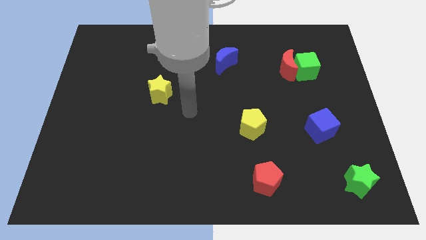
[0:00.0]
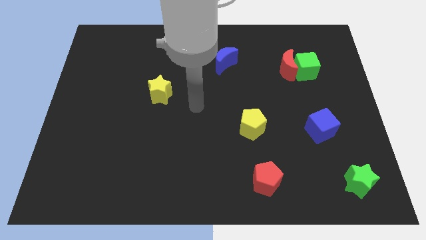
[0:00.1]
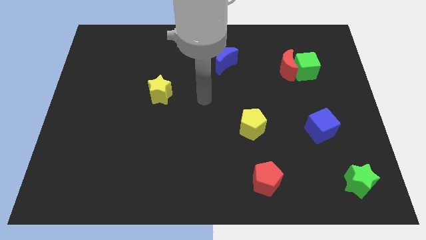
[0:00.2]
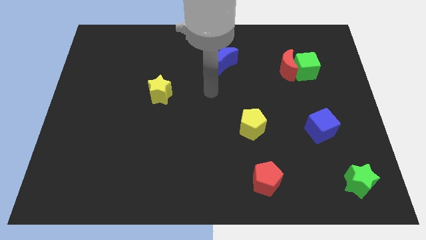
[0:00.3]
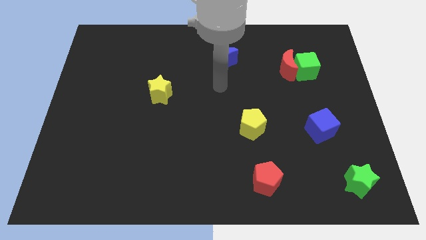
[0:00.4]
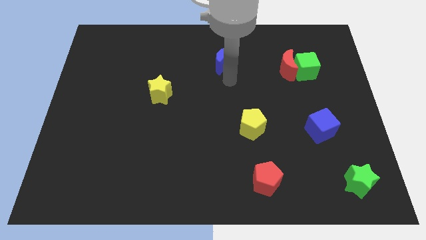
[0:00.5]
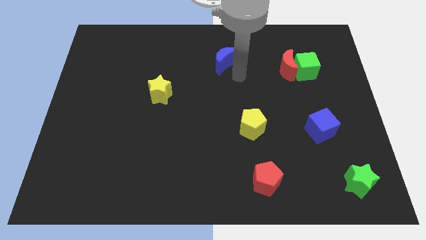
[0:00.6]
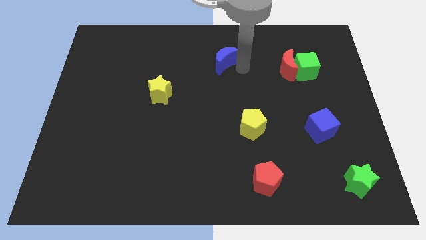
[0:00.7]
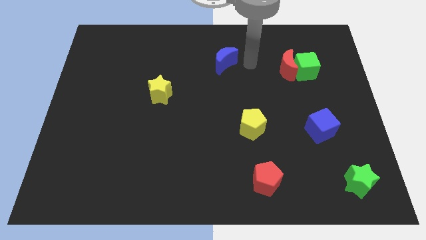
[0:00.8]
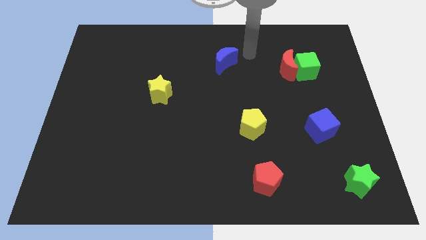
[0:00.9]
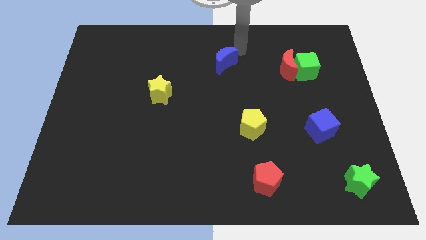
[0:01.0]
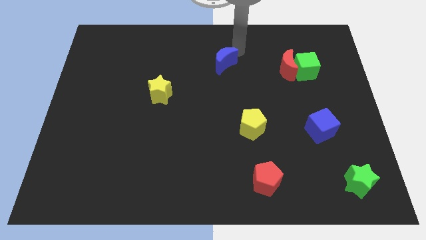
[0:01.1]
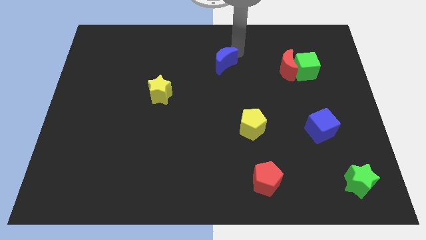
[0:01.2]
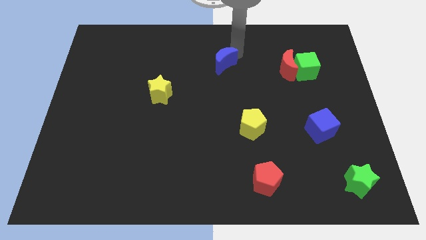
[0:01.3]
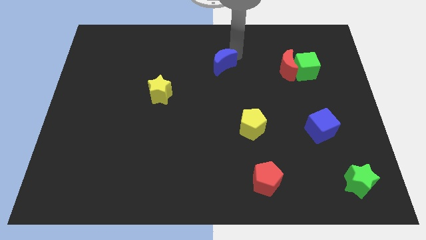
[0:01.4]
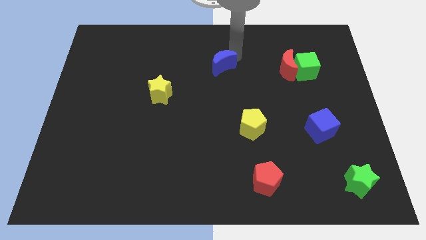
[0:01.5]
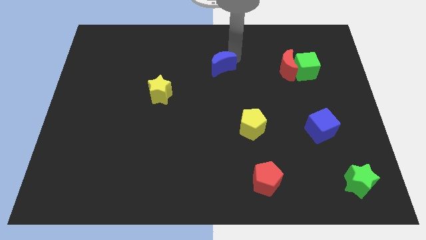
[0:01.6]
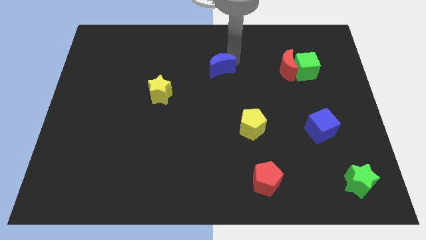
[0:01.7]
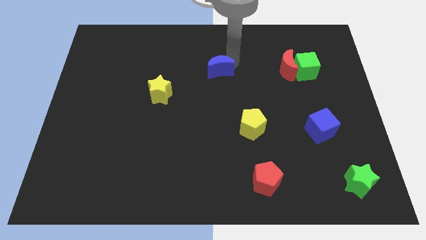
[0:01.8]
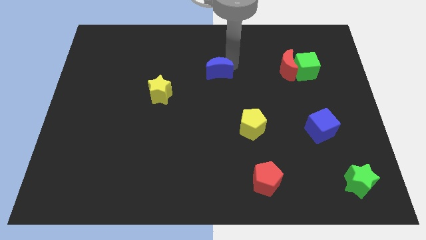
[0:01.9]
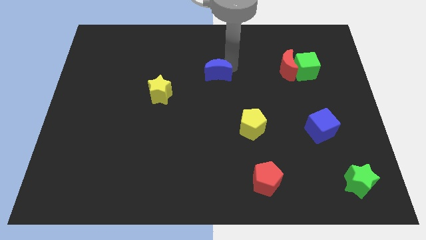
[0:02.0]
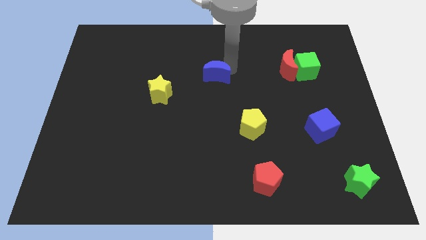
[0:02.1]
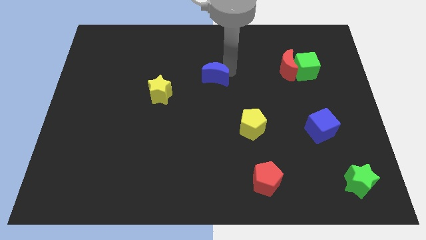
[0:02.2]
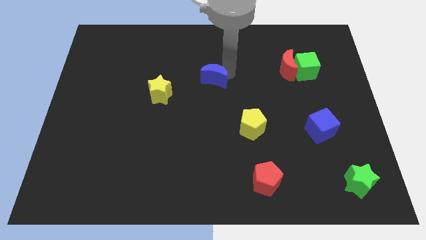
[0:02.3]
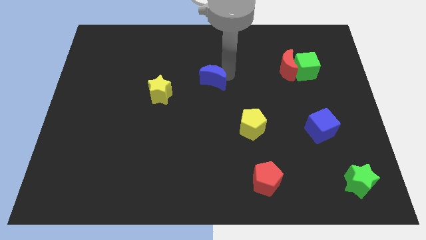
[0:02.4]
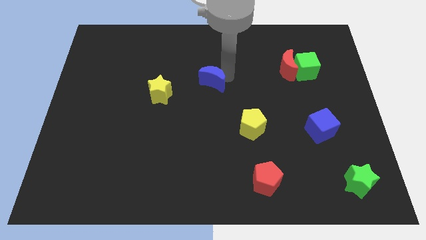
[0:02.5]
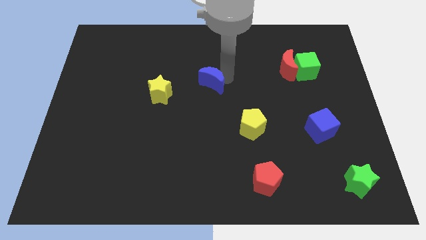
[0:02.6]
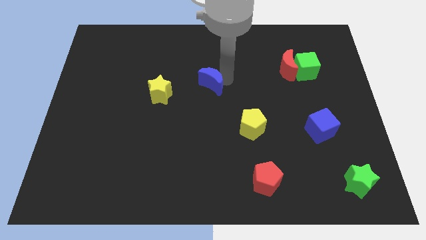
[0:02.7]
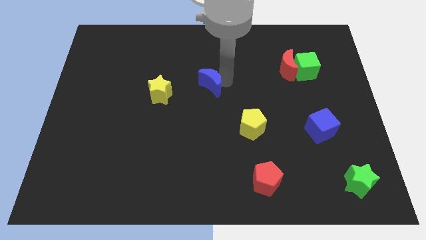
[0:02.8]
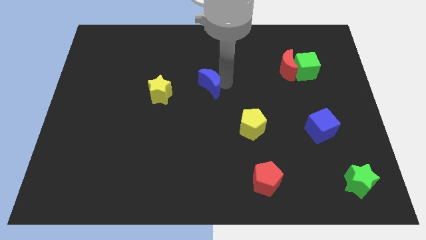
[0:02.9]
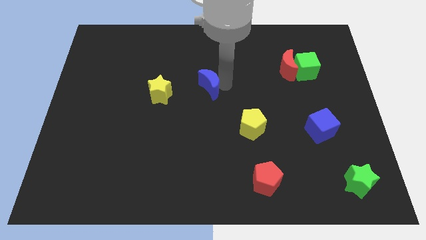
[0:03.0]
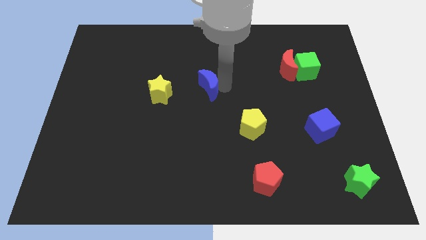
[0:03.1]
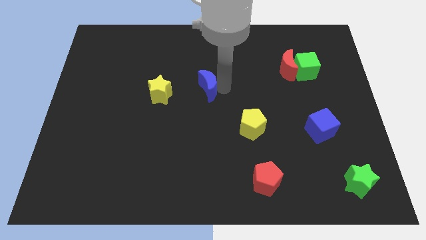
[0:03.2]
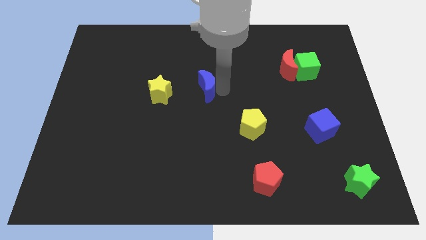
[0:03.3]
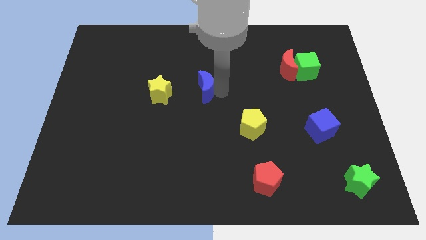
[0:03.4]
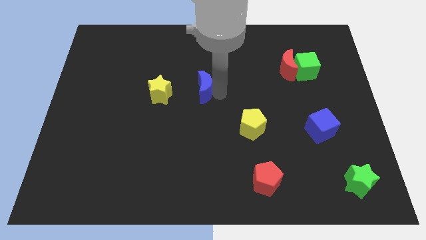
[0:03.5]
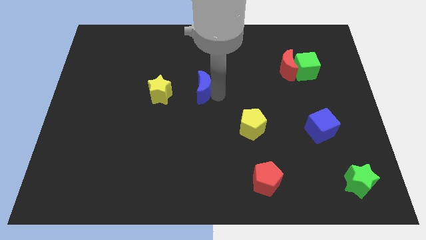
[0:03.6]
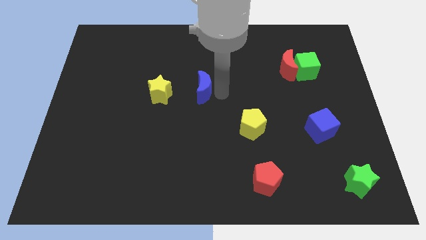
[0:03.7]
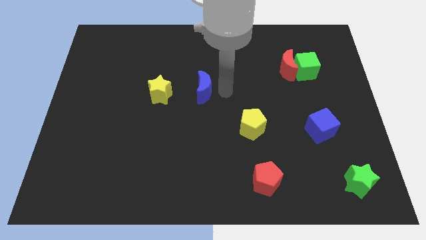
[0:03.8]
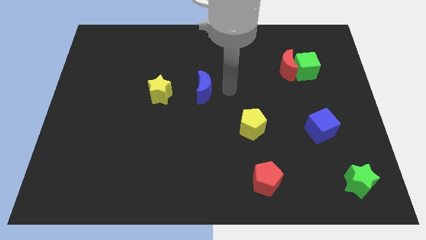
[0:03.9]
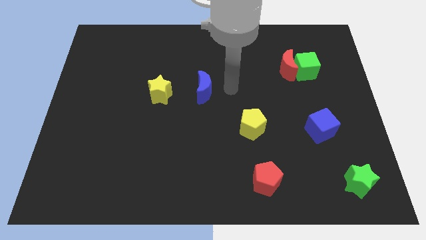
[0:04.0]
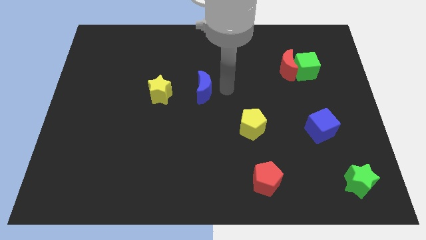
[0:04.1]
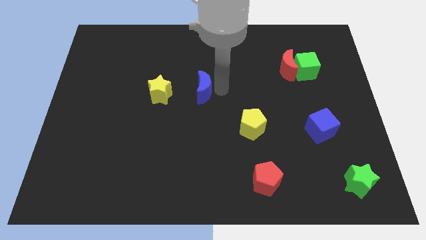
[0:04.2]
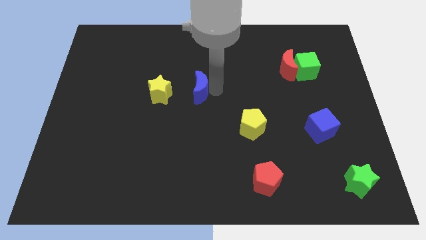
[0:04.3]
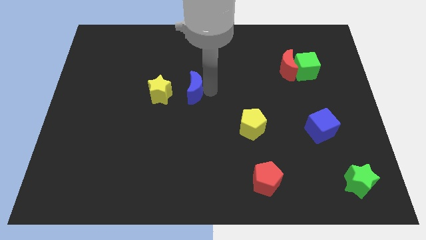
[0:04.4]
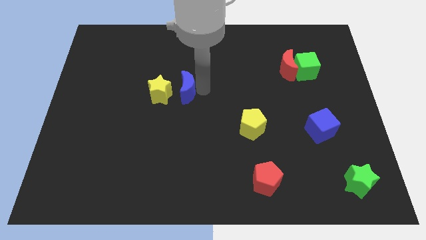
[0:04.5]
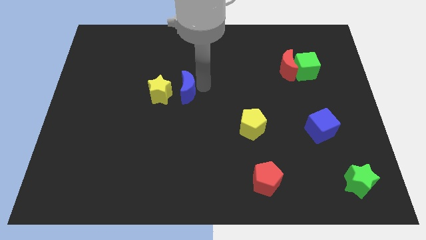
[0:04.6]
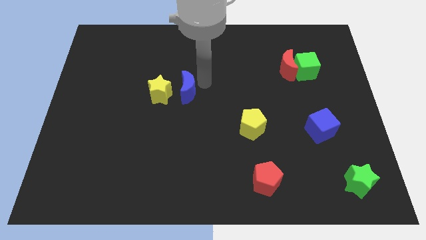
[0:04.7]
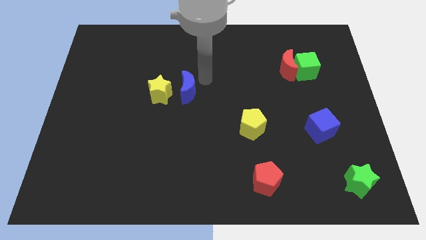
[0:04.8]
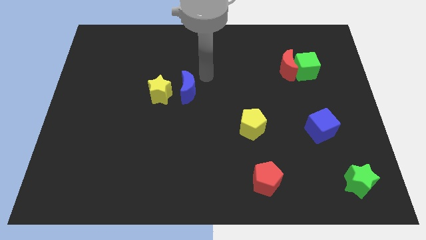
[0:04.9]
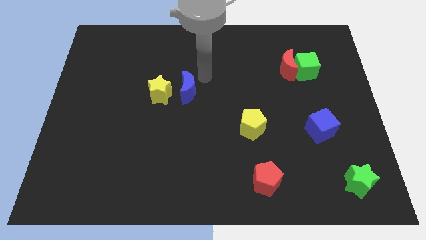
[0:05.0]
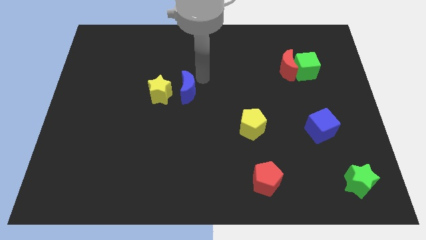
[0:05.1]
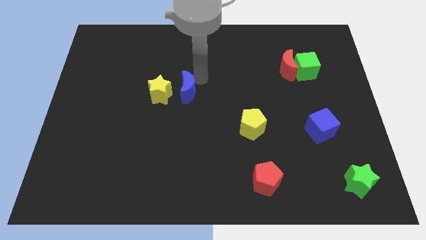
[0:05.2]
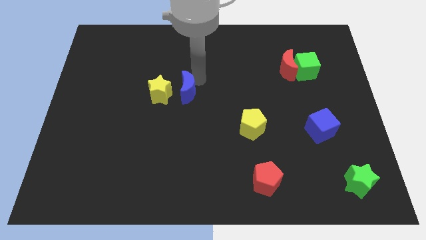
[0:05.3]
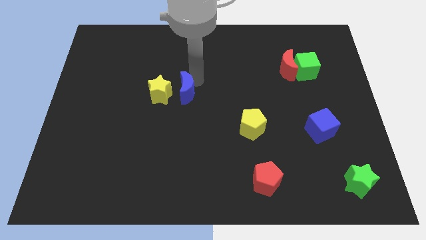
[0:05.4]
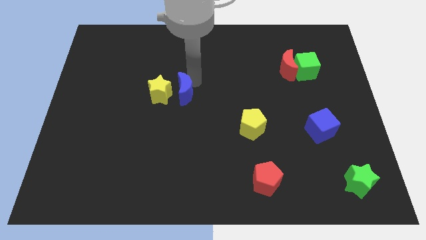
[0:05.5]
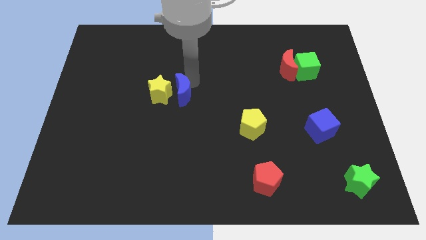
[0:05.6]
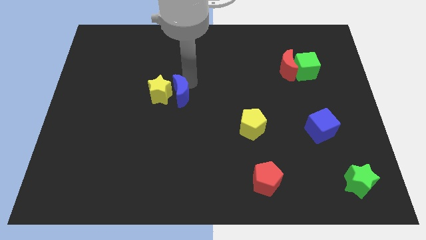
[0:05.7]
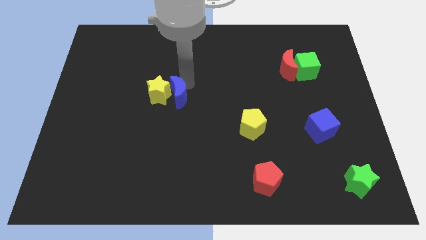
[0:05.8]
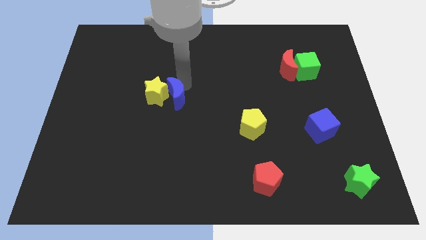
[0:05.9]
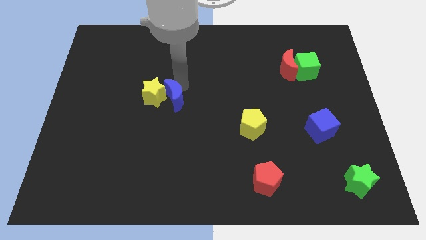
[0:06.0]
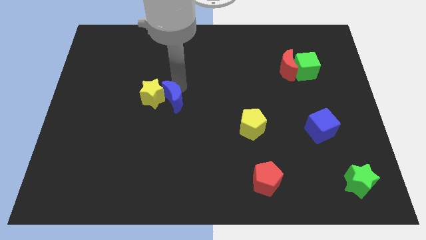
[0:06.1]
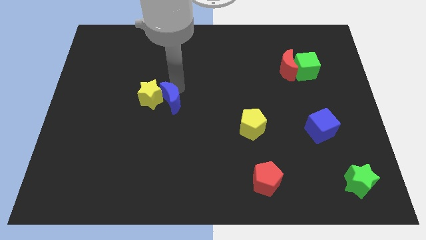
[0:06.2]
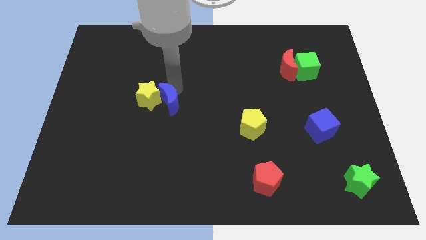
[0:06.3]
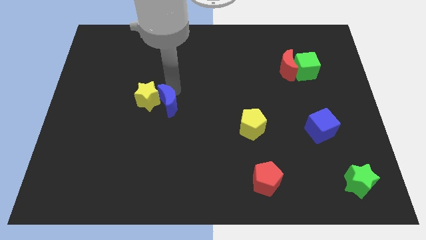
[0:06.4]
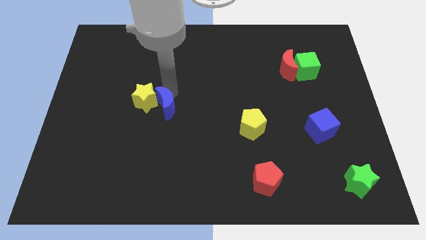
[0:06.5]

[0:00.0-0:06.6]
slide the blue moon diagonally downwards and to the left

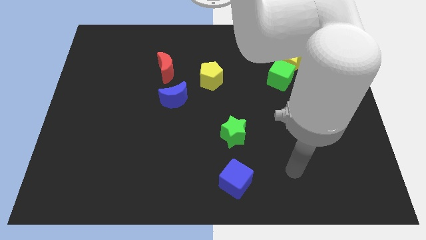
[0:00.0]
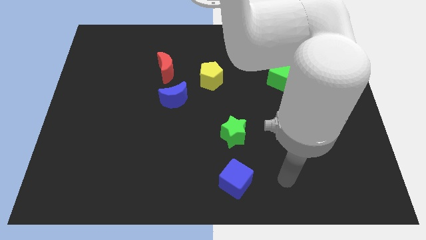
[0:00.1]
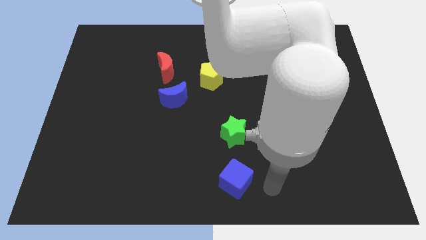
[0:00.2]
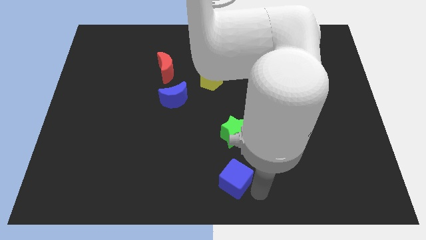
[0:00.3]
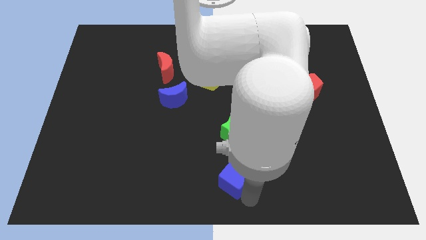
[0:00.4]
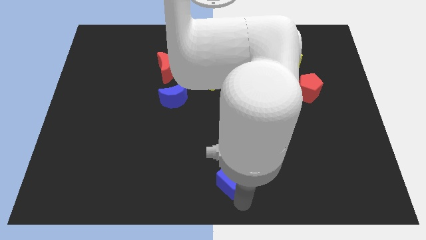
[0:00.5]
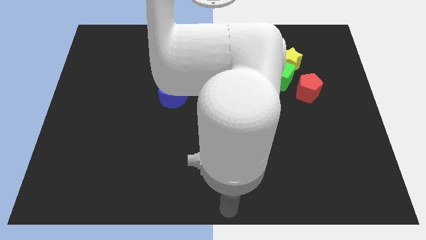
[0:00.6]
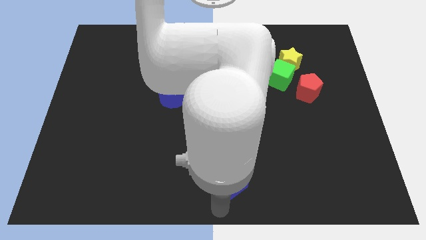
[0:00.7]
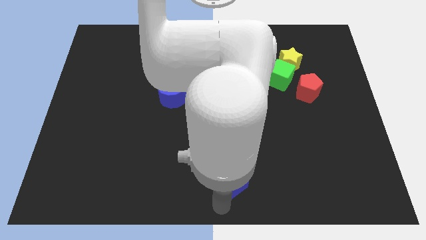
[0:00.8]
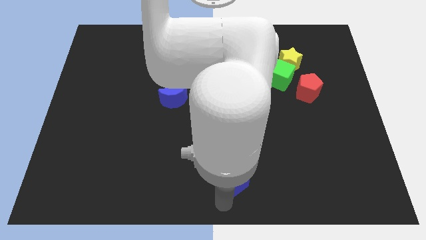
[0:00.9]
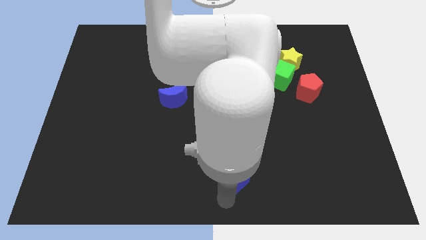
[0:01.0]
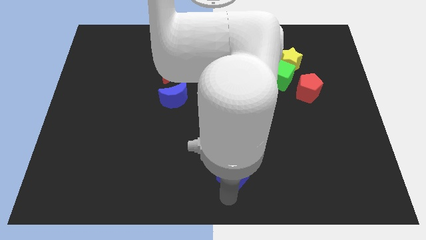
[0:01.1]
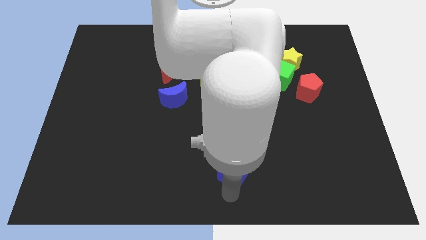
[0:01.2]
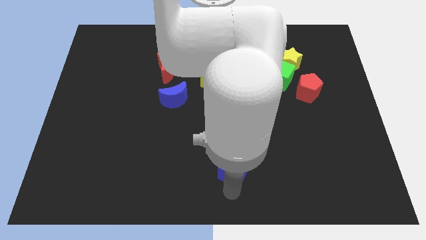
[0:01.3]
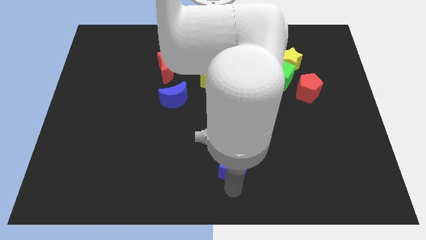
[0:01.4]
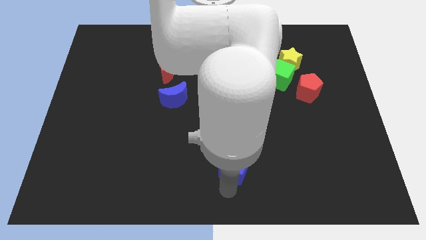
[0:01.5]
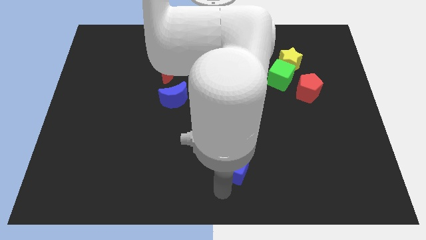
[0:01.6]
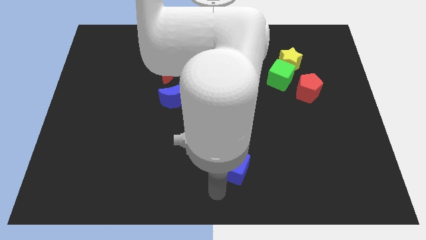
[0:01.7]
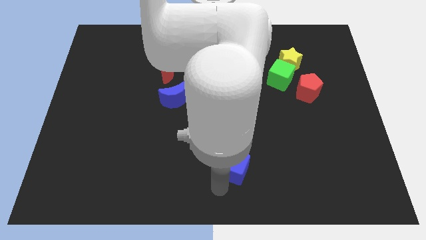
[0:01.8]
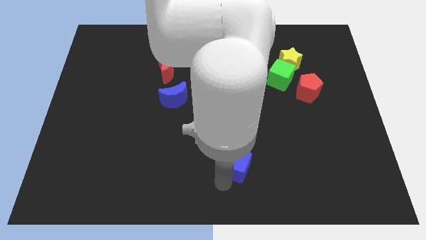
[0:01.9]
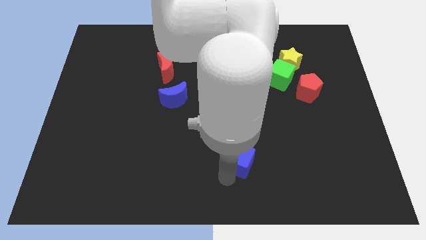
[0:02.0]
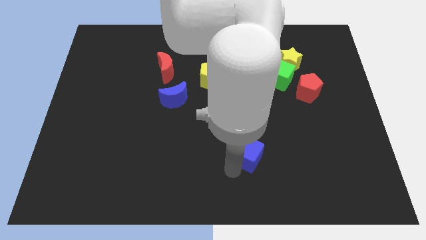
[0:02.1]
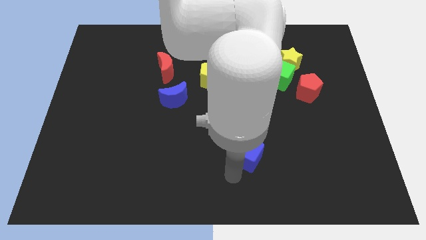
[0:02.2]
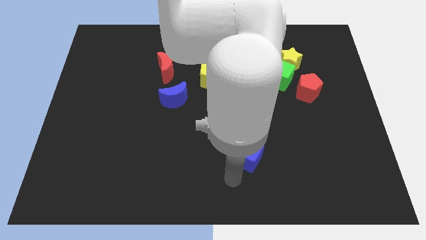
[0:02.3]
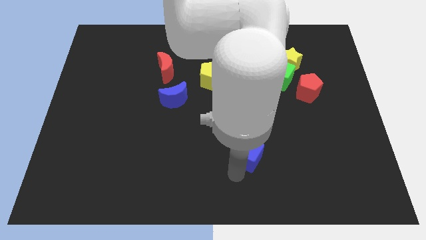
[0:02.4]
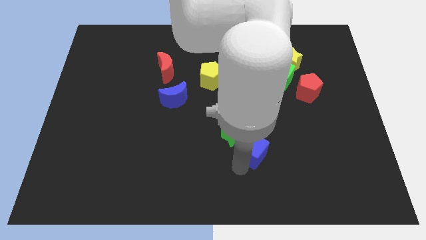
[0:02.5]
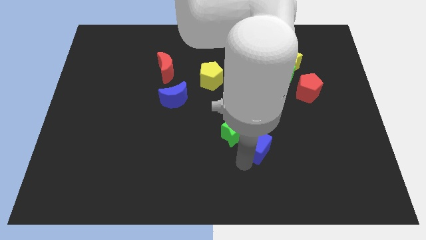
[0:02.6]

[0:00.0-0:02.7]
slide the blue cube somewhat up
